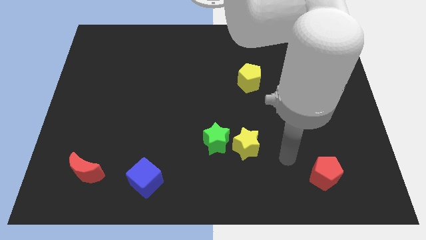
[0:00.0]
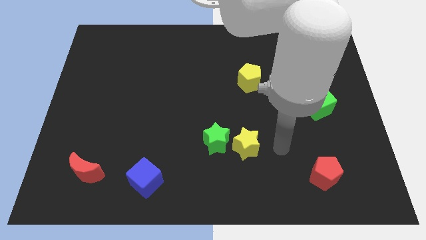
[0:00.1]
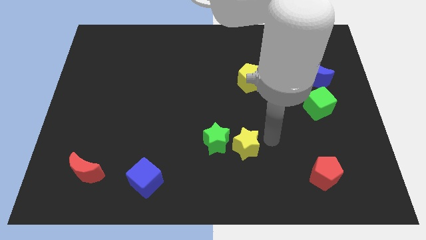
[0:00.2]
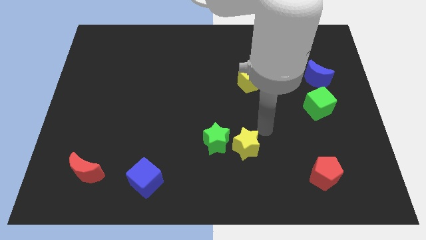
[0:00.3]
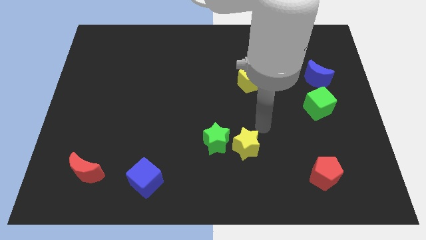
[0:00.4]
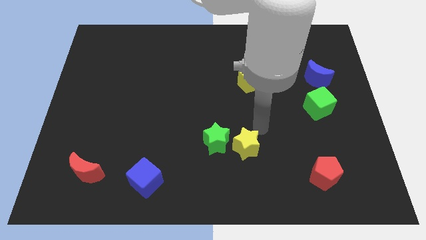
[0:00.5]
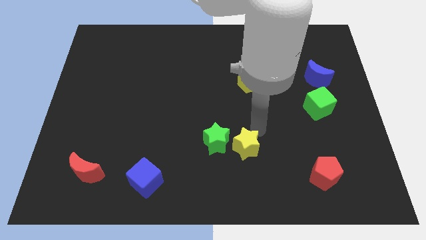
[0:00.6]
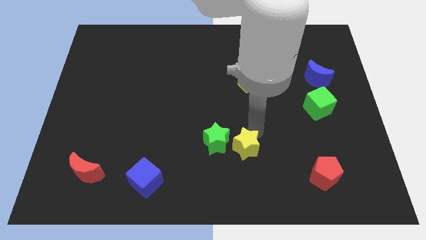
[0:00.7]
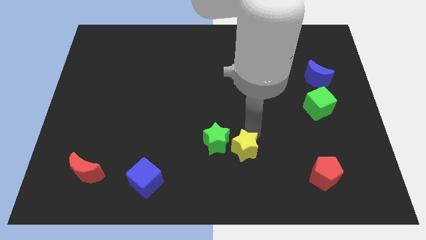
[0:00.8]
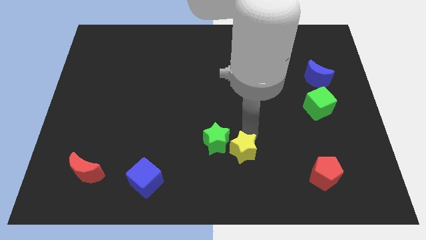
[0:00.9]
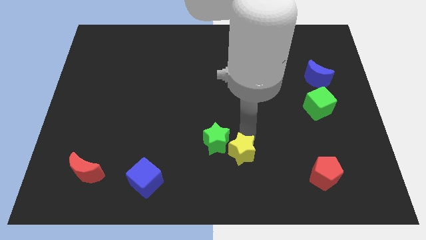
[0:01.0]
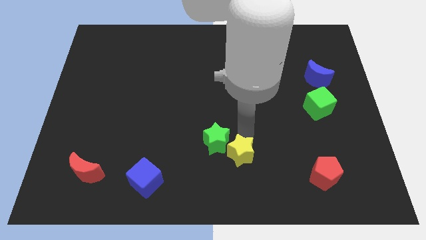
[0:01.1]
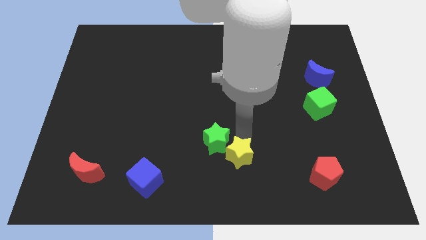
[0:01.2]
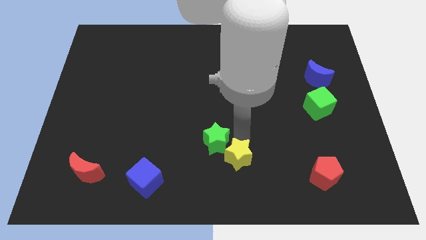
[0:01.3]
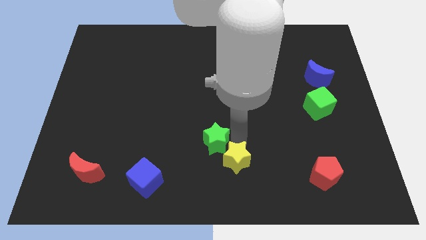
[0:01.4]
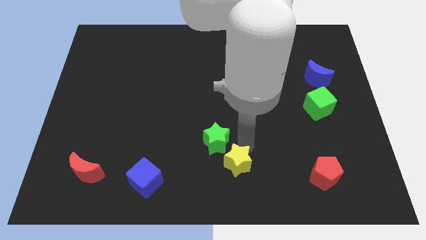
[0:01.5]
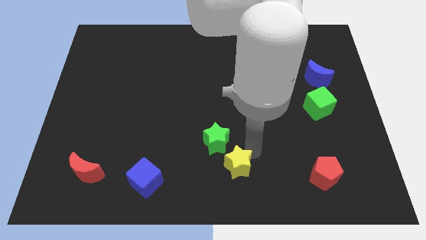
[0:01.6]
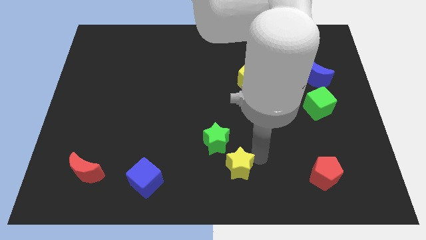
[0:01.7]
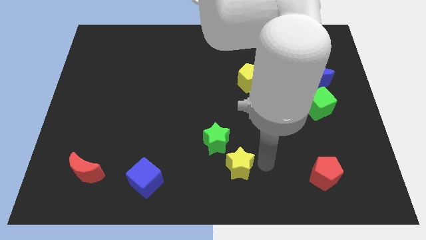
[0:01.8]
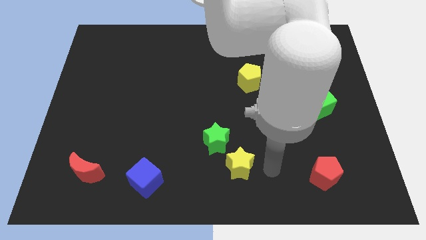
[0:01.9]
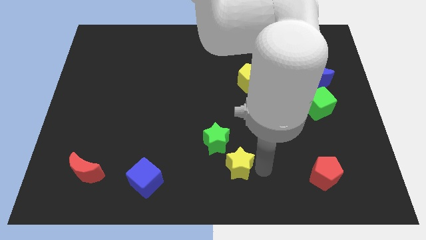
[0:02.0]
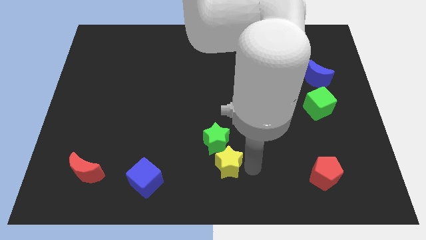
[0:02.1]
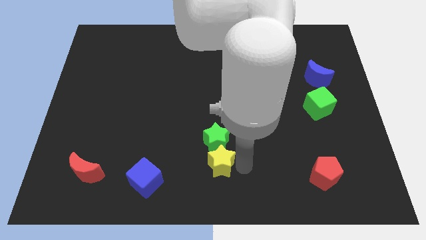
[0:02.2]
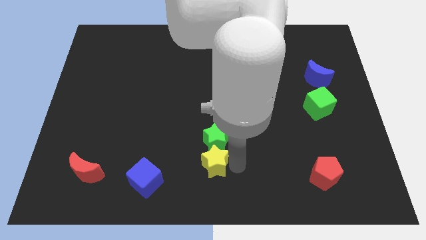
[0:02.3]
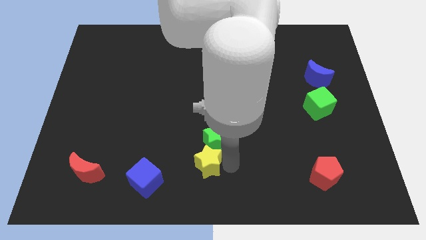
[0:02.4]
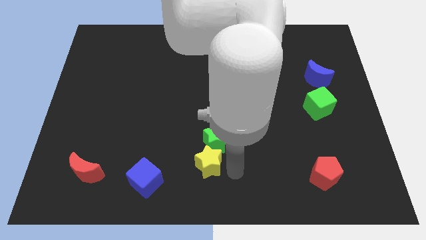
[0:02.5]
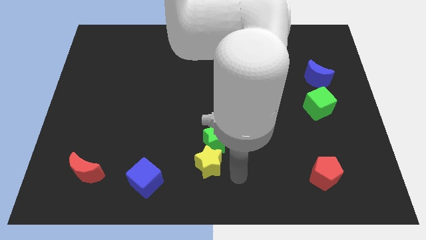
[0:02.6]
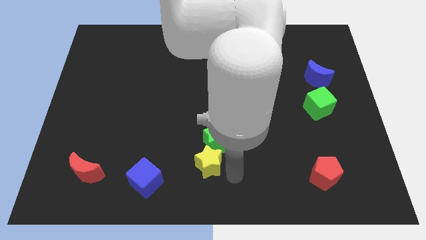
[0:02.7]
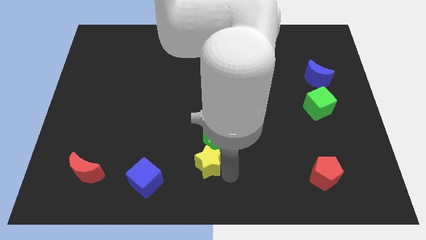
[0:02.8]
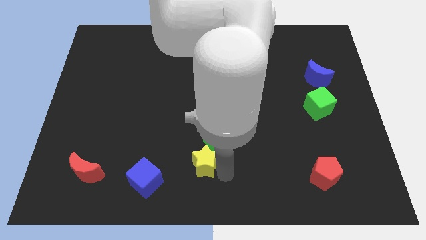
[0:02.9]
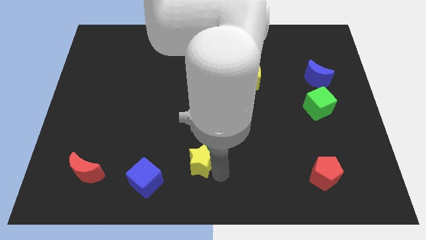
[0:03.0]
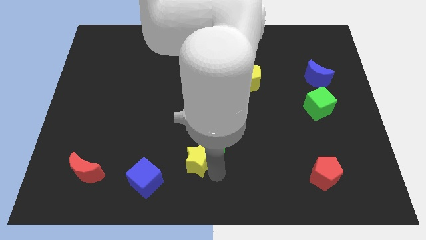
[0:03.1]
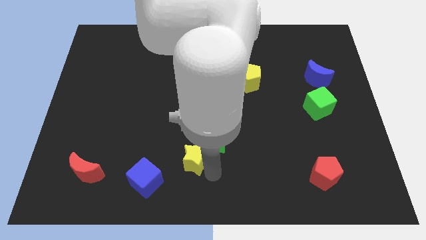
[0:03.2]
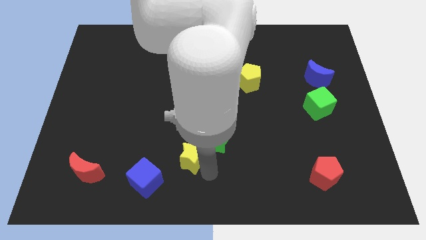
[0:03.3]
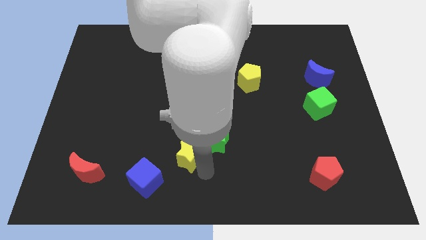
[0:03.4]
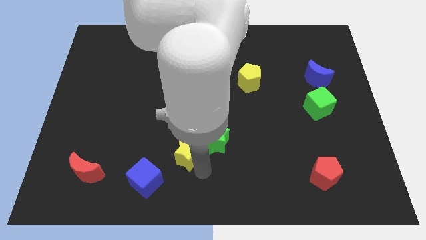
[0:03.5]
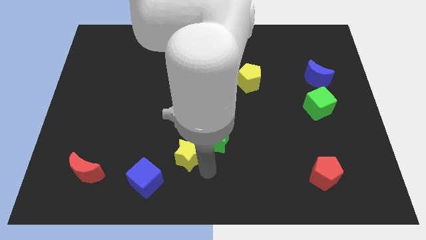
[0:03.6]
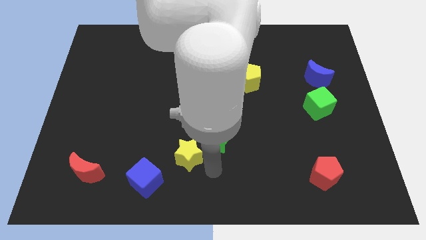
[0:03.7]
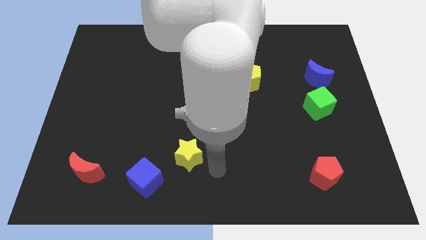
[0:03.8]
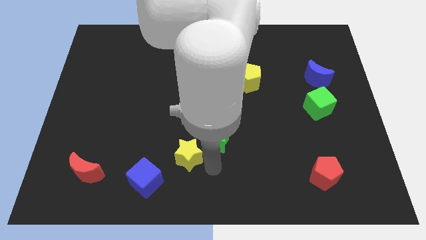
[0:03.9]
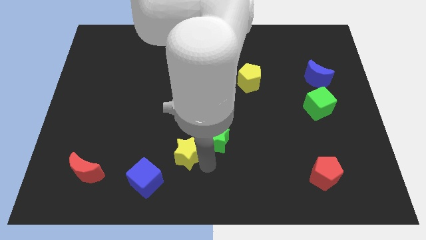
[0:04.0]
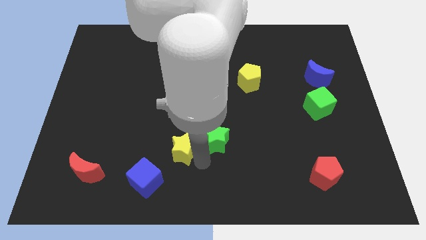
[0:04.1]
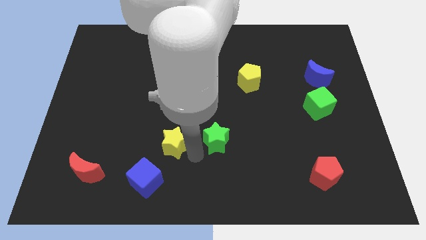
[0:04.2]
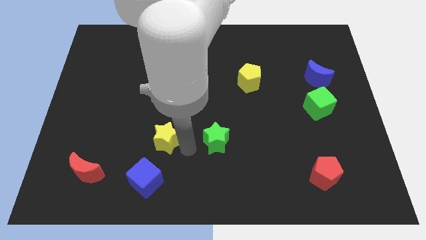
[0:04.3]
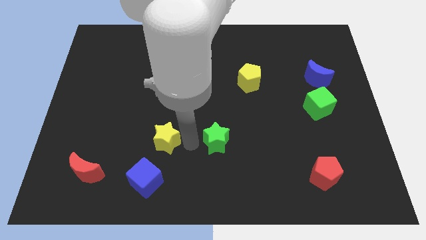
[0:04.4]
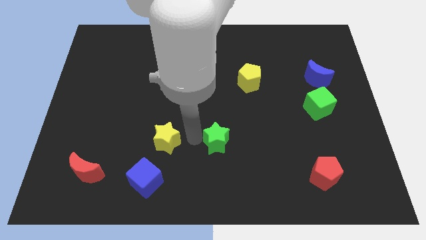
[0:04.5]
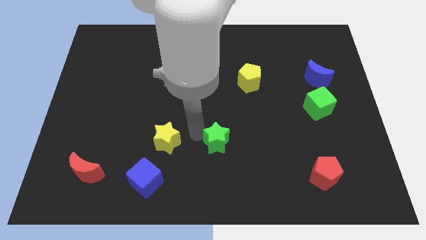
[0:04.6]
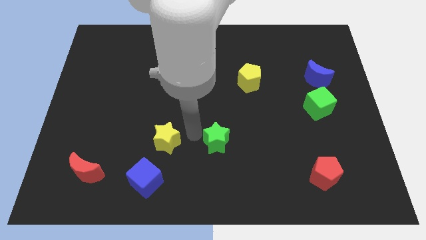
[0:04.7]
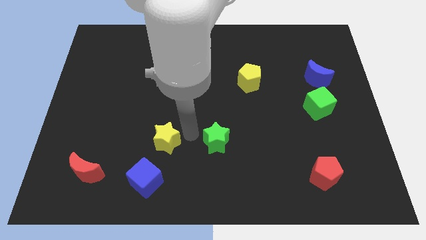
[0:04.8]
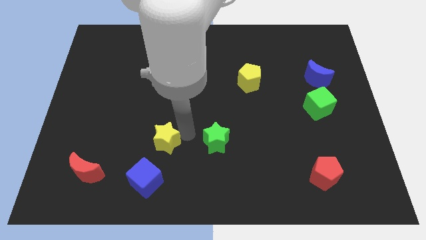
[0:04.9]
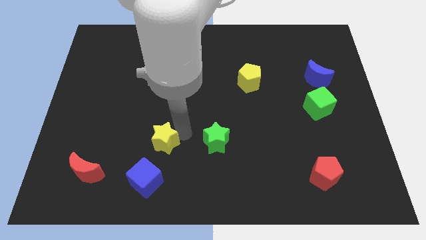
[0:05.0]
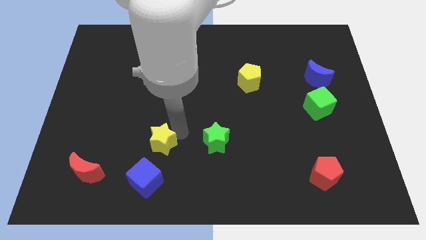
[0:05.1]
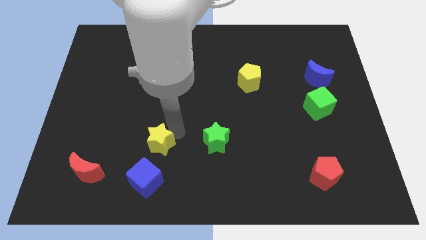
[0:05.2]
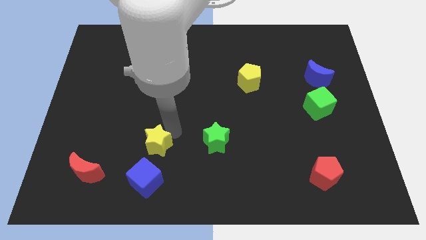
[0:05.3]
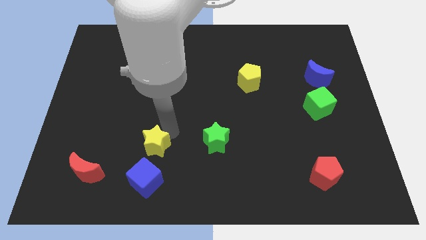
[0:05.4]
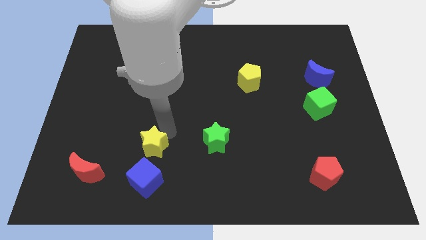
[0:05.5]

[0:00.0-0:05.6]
push the yellow star to the left

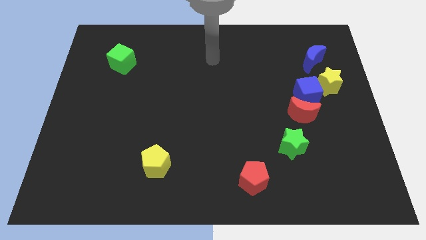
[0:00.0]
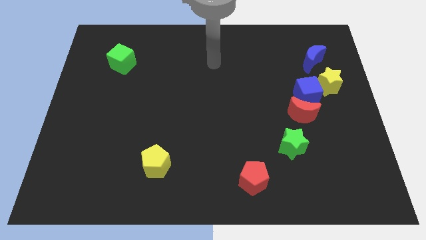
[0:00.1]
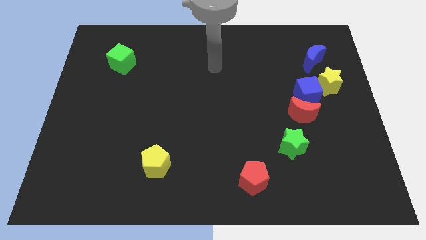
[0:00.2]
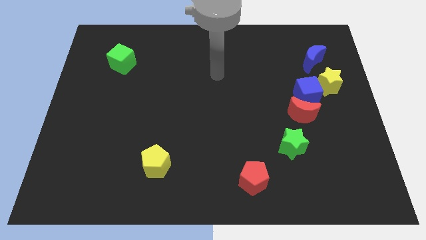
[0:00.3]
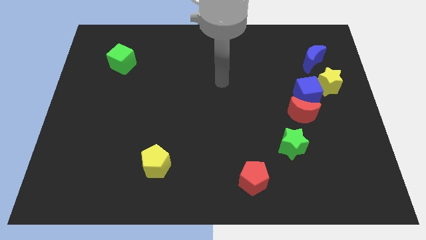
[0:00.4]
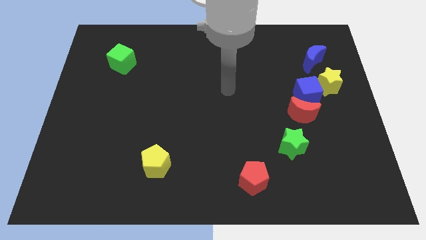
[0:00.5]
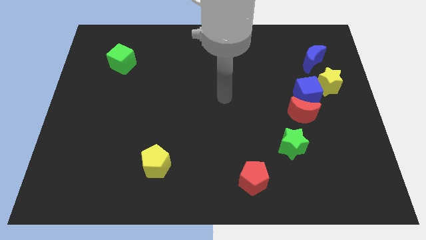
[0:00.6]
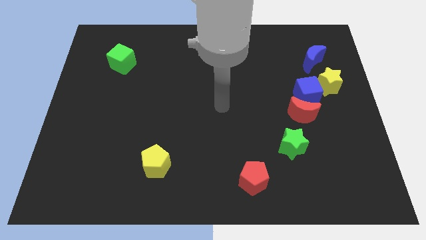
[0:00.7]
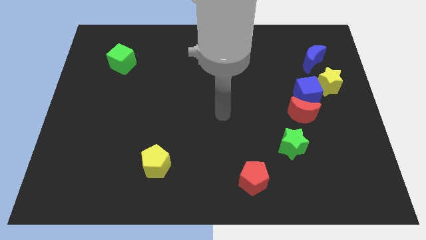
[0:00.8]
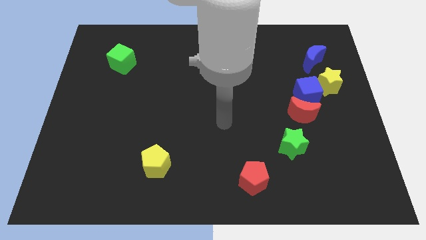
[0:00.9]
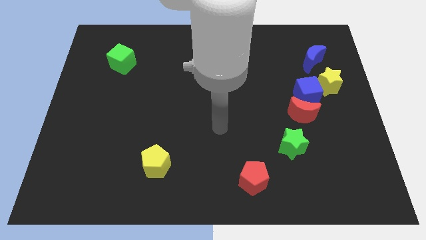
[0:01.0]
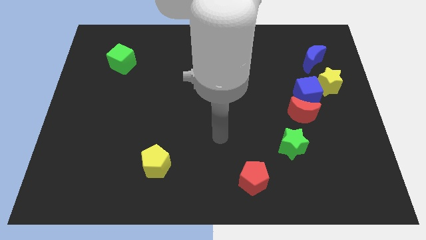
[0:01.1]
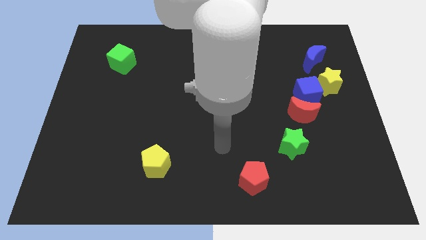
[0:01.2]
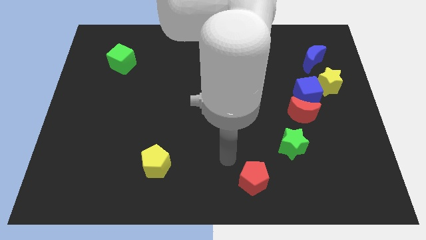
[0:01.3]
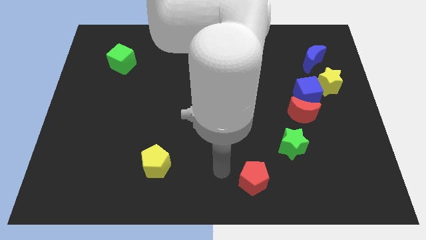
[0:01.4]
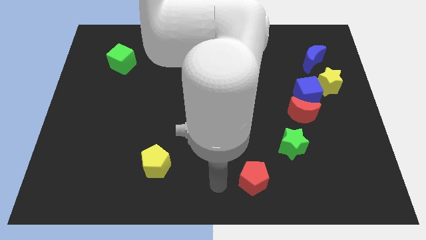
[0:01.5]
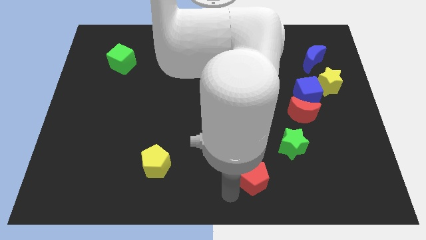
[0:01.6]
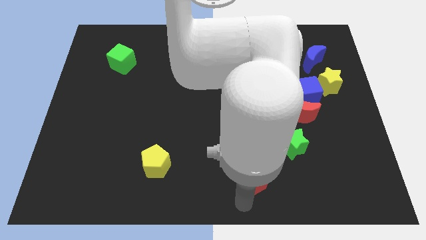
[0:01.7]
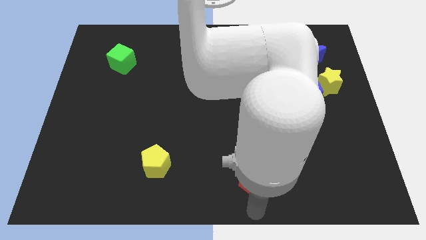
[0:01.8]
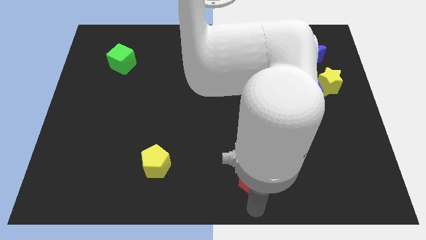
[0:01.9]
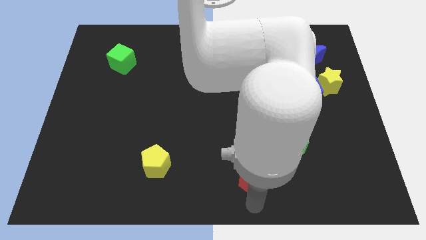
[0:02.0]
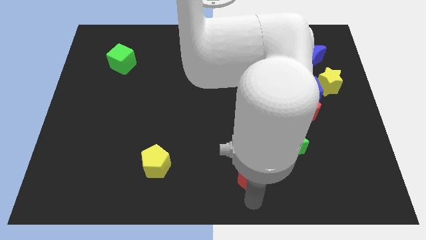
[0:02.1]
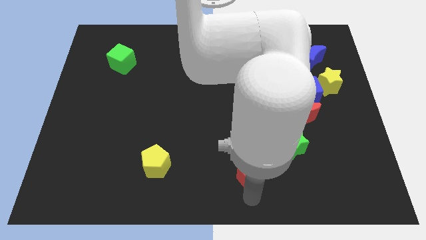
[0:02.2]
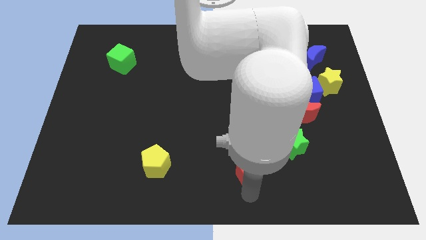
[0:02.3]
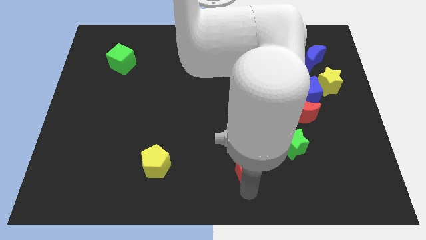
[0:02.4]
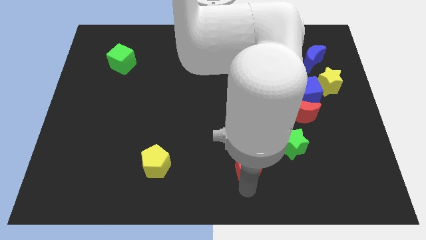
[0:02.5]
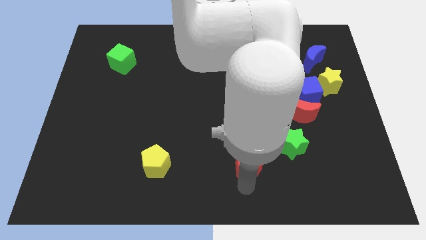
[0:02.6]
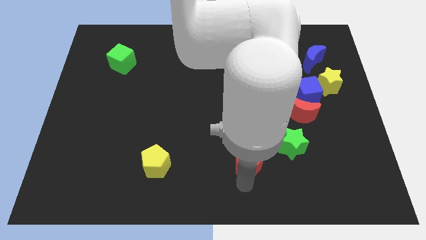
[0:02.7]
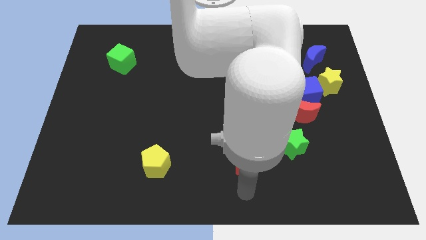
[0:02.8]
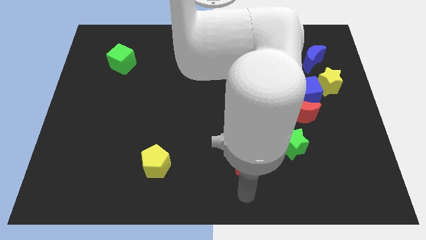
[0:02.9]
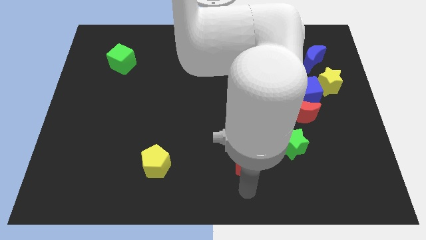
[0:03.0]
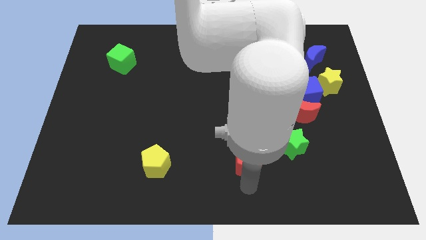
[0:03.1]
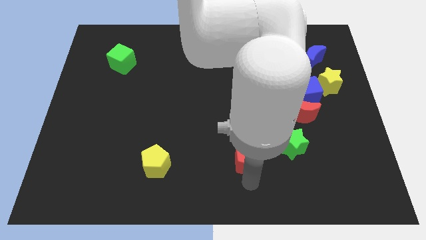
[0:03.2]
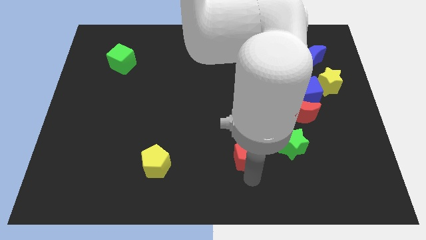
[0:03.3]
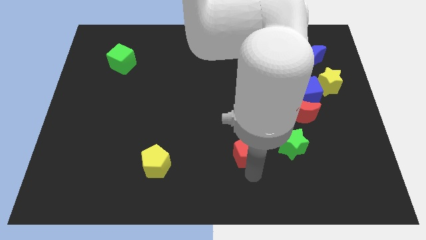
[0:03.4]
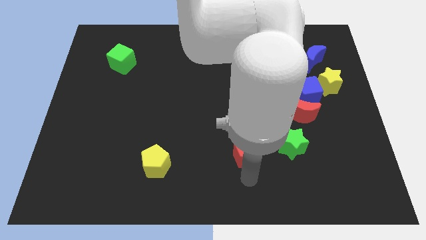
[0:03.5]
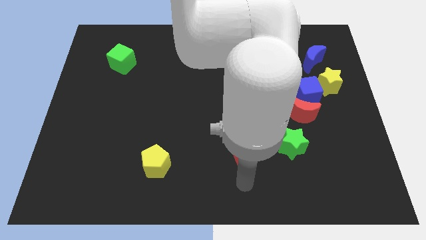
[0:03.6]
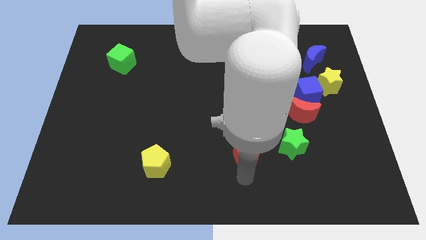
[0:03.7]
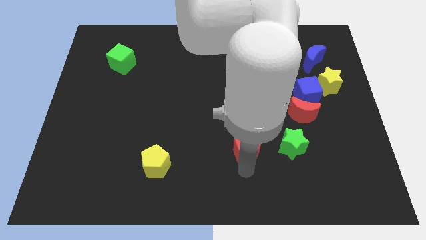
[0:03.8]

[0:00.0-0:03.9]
push the red pentagon a little bit upwards
